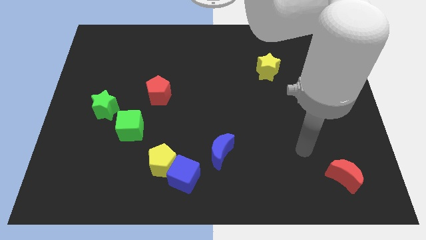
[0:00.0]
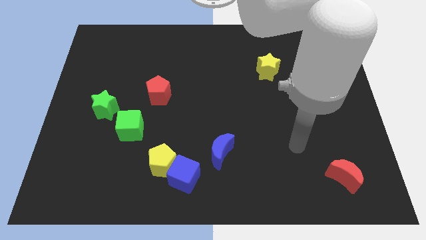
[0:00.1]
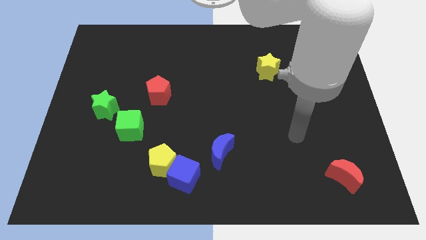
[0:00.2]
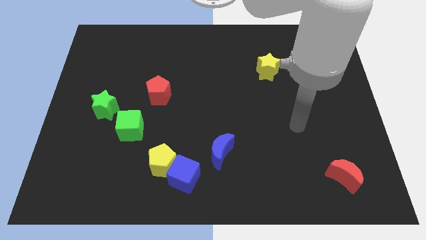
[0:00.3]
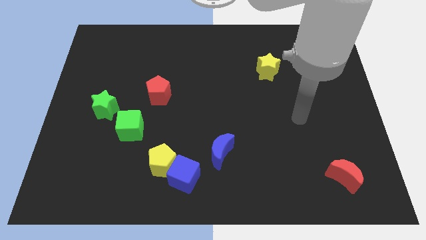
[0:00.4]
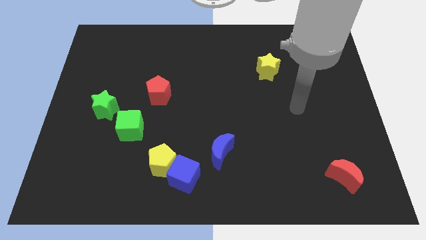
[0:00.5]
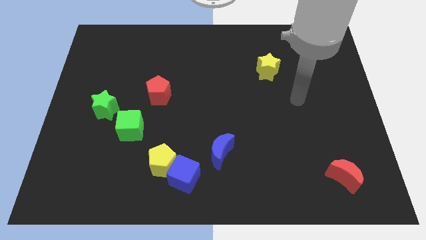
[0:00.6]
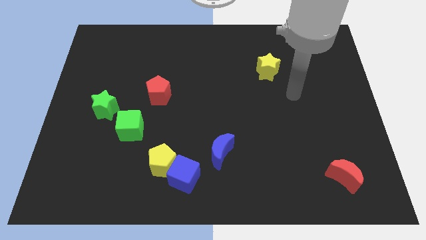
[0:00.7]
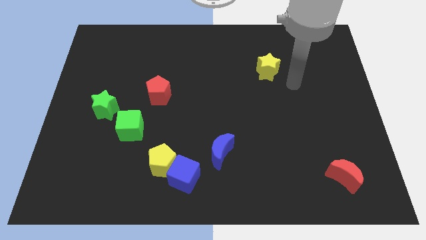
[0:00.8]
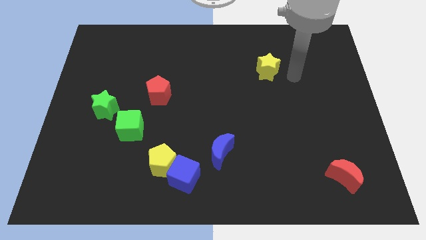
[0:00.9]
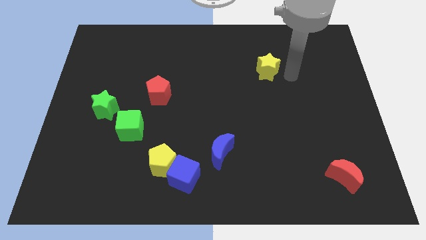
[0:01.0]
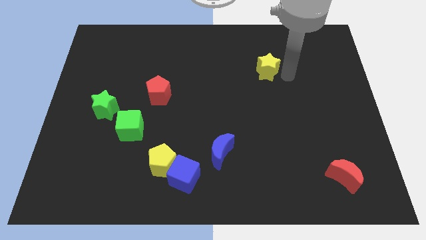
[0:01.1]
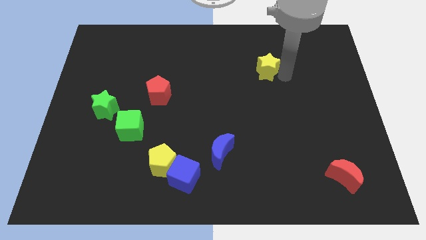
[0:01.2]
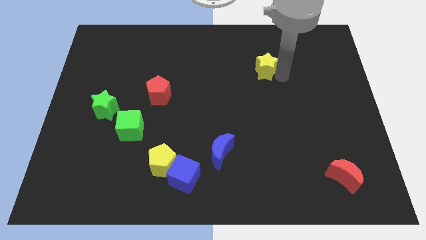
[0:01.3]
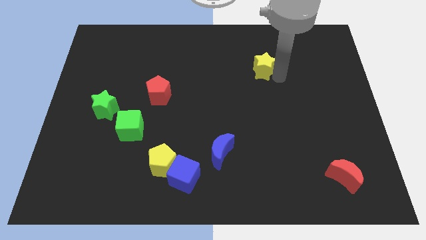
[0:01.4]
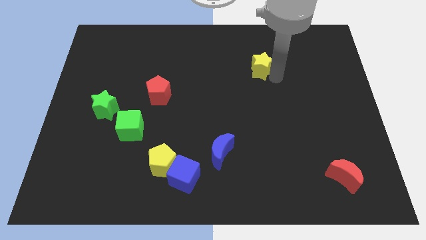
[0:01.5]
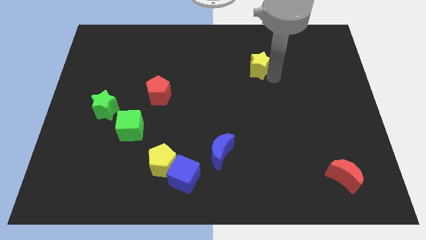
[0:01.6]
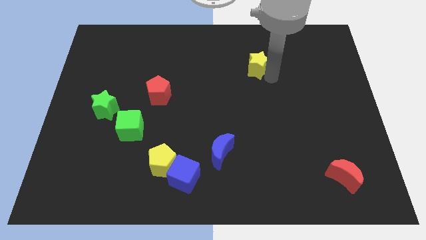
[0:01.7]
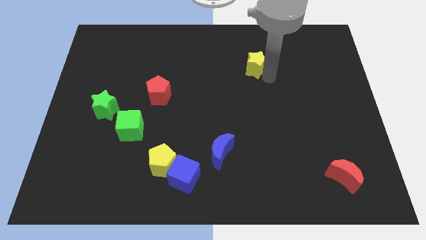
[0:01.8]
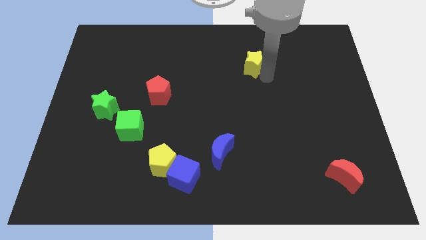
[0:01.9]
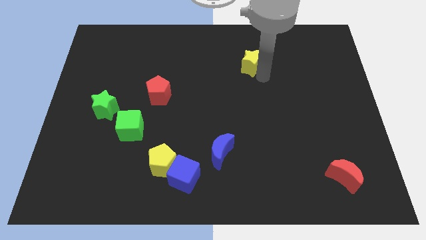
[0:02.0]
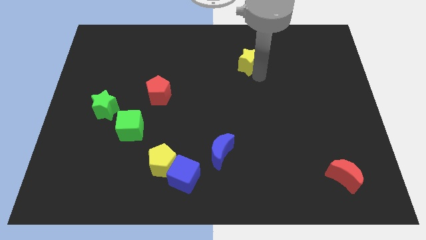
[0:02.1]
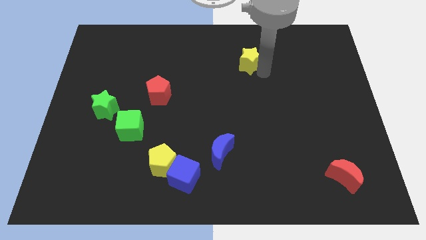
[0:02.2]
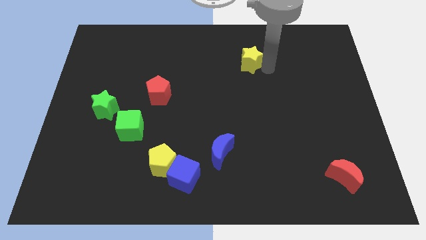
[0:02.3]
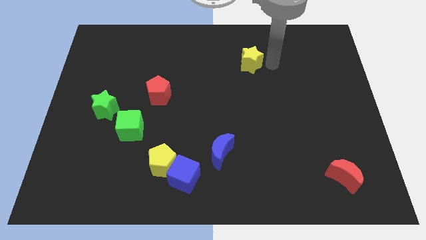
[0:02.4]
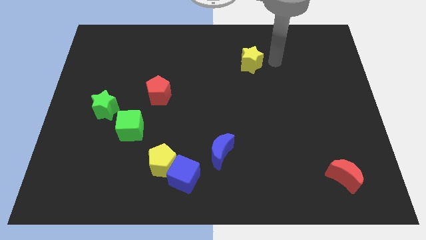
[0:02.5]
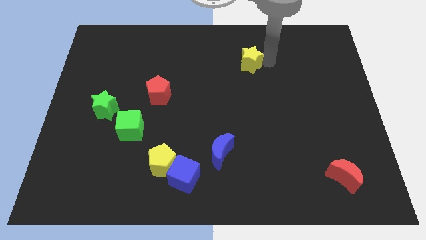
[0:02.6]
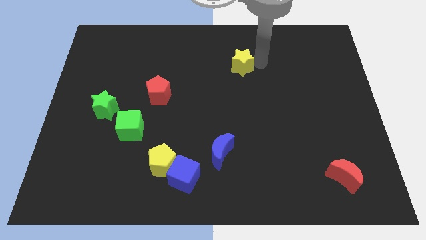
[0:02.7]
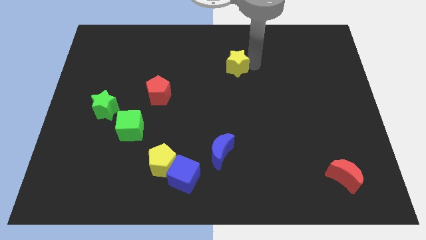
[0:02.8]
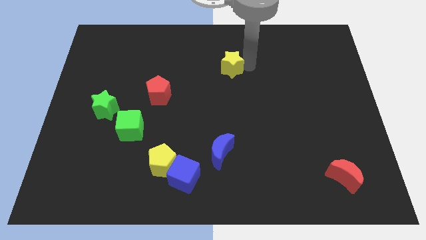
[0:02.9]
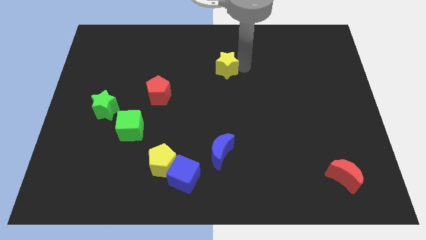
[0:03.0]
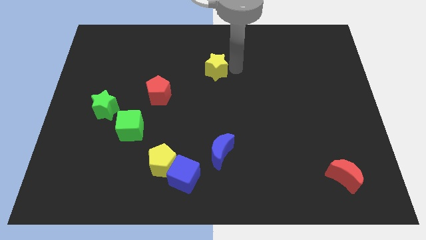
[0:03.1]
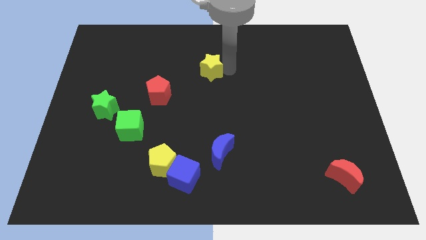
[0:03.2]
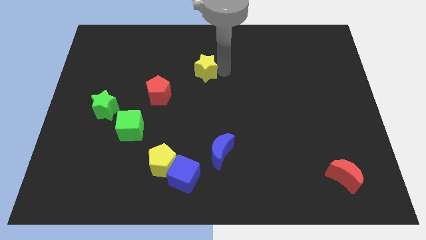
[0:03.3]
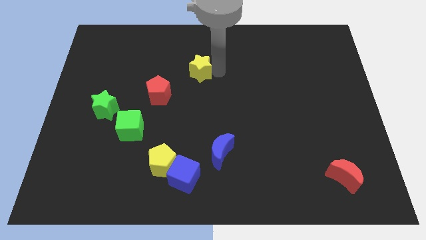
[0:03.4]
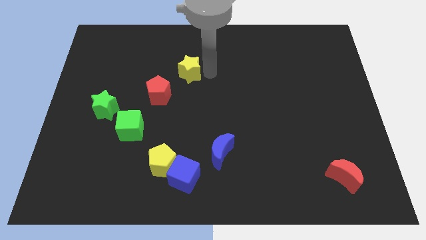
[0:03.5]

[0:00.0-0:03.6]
move the yellow star to the left

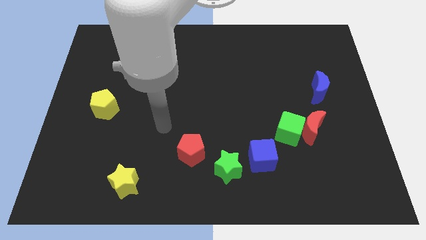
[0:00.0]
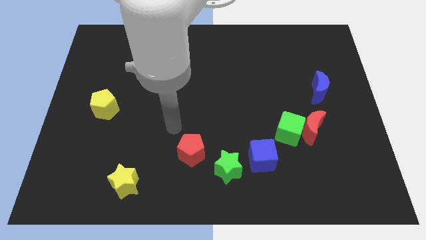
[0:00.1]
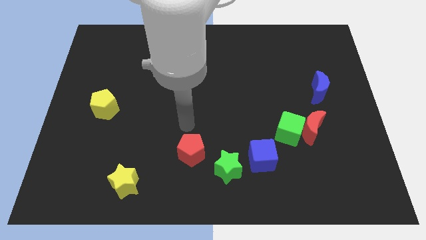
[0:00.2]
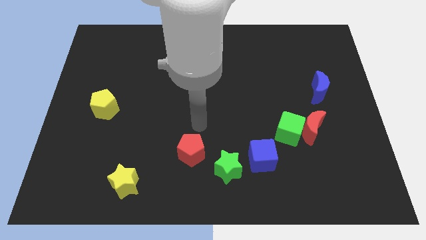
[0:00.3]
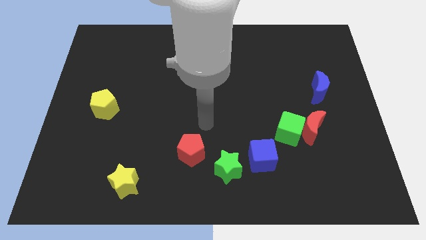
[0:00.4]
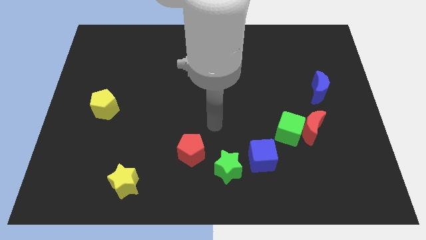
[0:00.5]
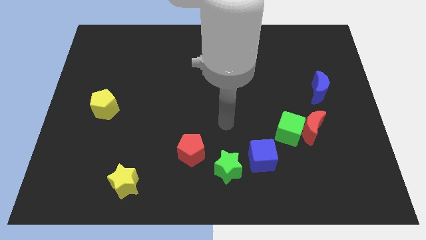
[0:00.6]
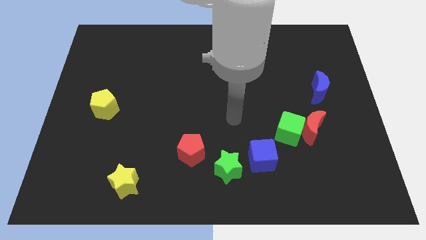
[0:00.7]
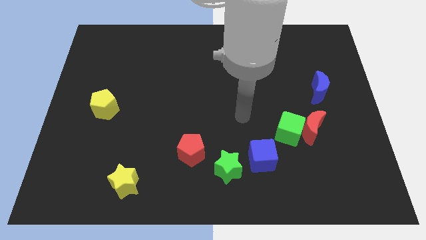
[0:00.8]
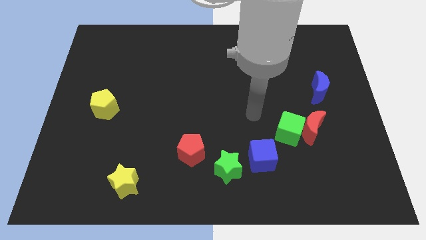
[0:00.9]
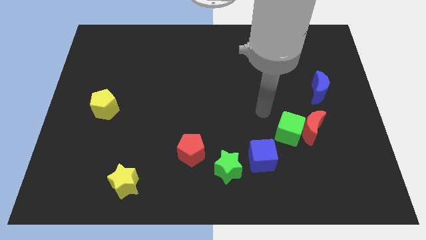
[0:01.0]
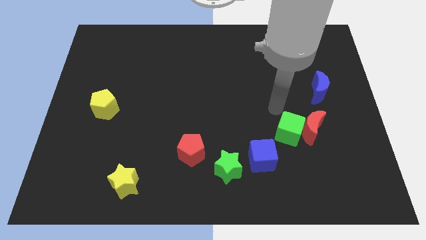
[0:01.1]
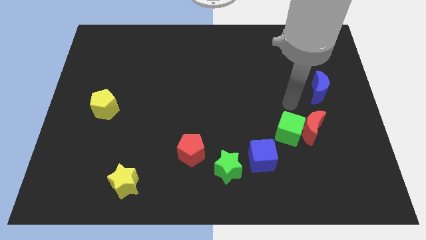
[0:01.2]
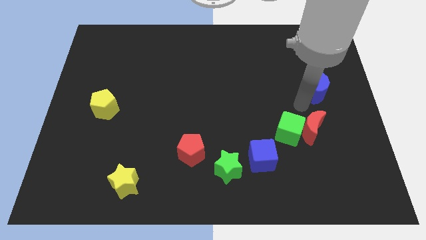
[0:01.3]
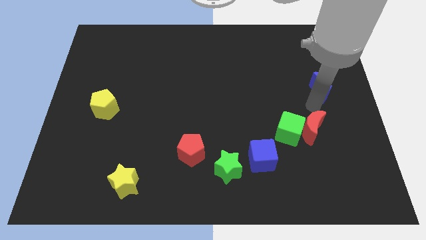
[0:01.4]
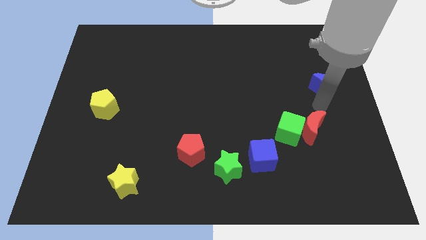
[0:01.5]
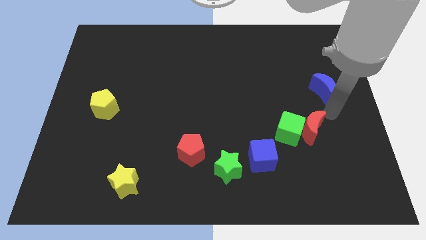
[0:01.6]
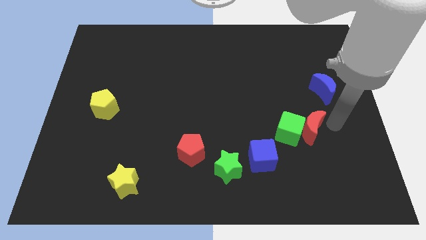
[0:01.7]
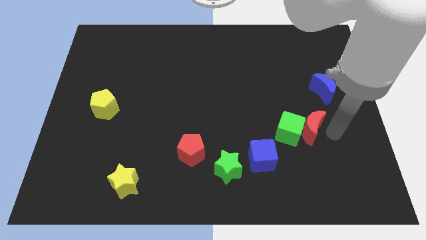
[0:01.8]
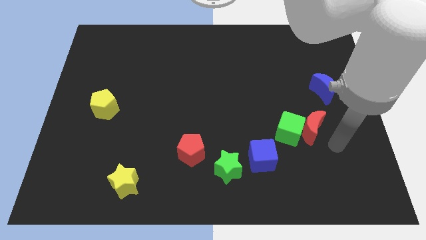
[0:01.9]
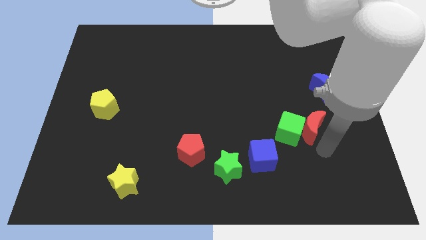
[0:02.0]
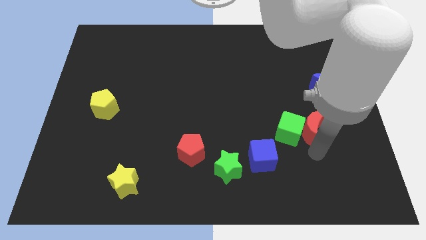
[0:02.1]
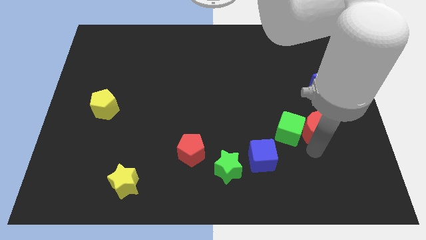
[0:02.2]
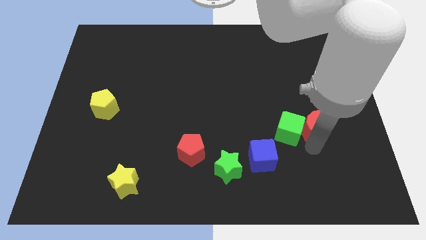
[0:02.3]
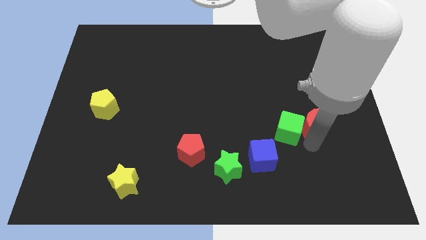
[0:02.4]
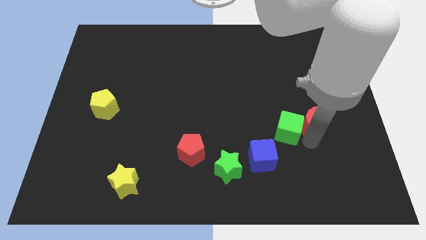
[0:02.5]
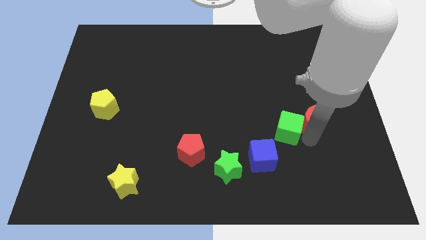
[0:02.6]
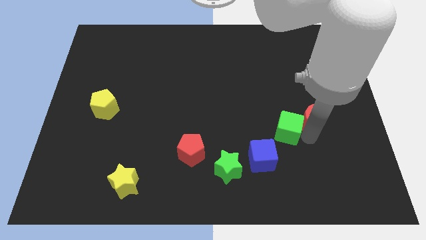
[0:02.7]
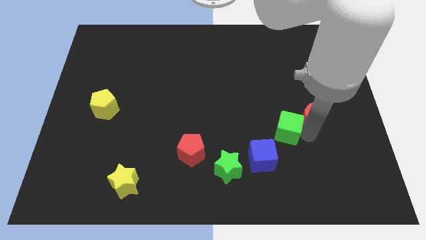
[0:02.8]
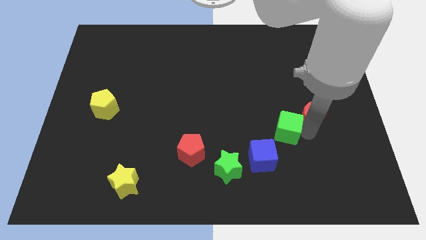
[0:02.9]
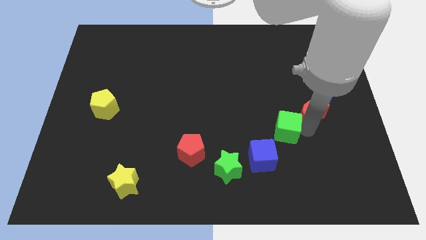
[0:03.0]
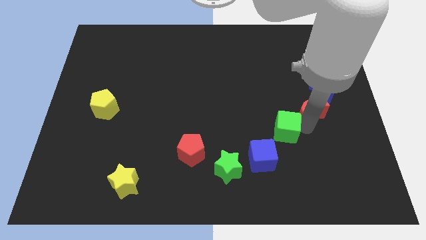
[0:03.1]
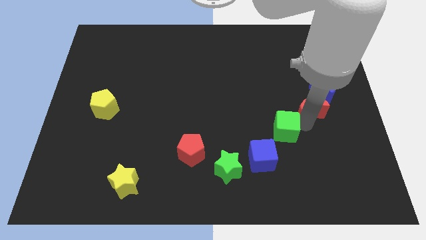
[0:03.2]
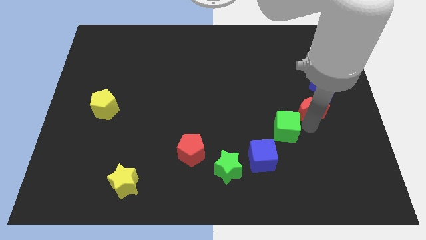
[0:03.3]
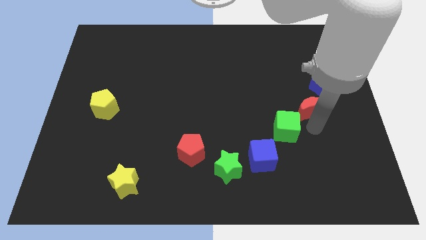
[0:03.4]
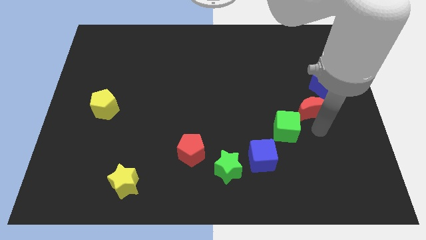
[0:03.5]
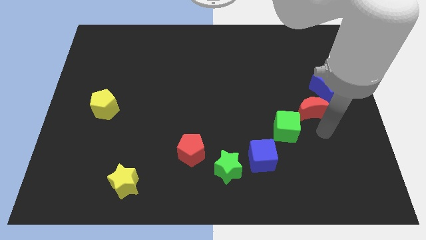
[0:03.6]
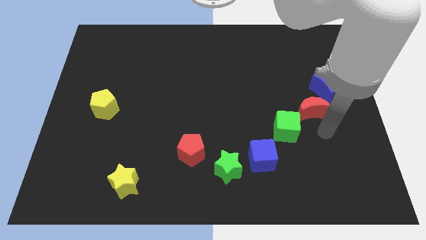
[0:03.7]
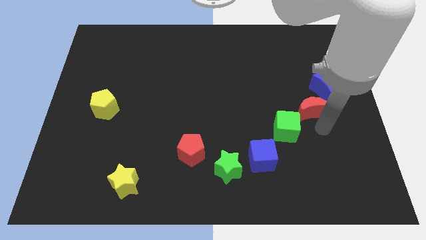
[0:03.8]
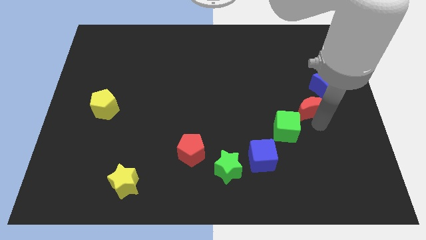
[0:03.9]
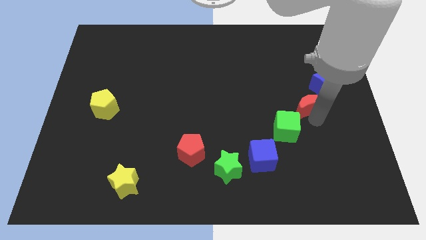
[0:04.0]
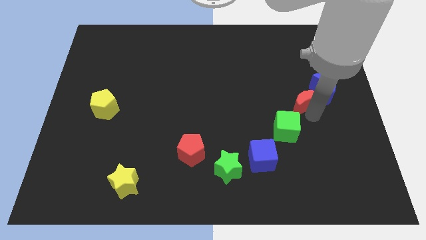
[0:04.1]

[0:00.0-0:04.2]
slightly move the red moon up
